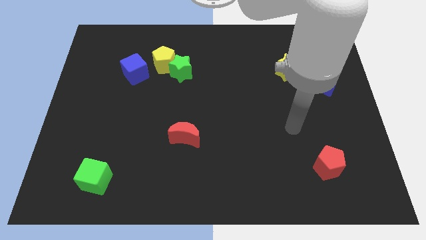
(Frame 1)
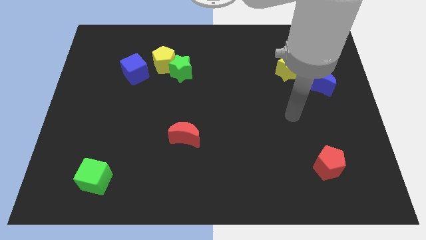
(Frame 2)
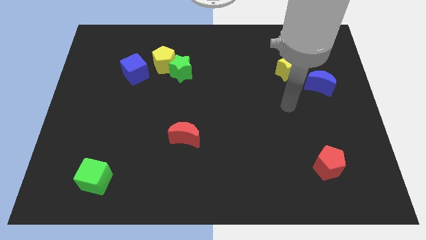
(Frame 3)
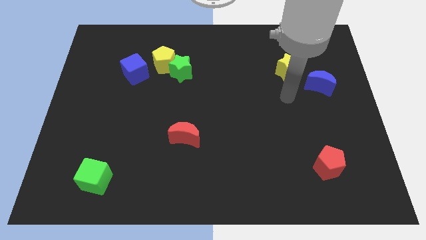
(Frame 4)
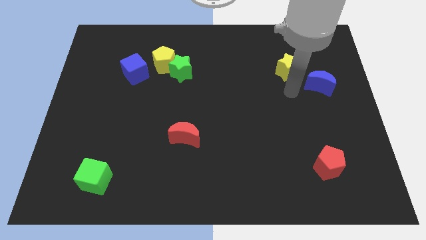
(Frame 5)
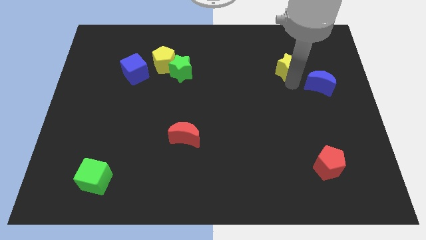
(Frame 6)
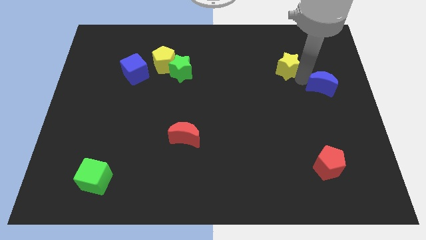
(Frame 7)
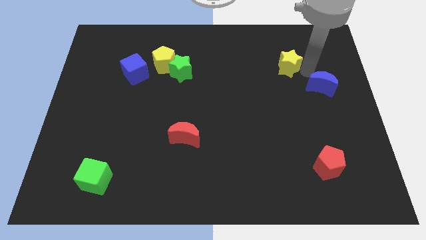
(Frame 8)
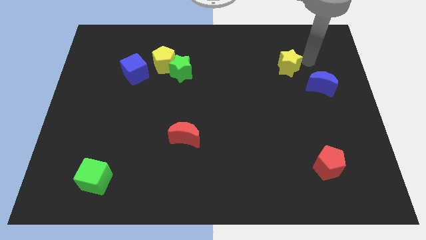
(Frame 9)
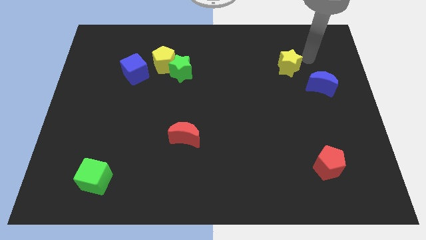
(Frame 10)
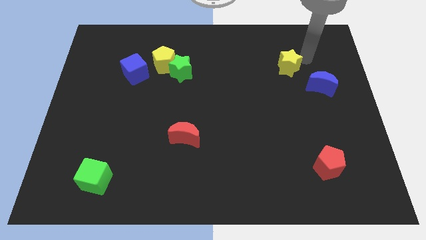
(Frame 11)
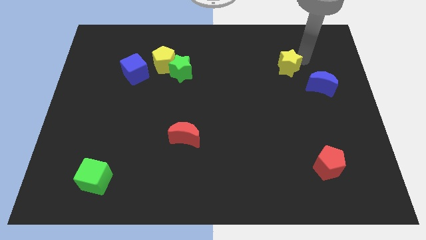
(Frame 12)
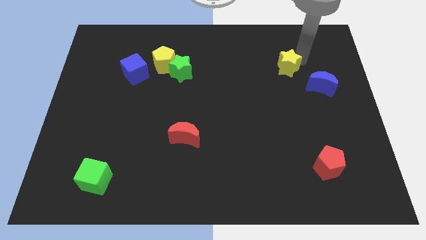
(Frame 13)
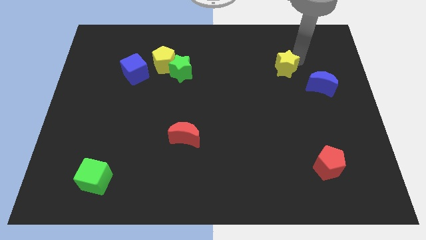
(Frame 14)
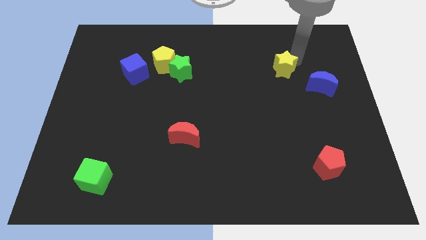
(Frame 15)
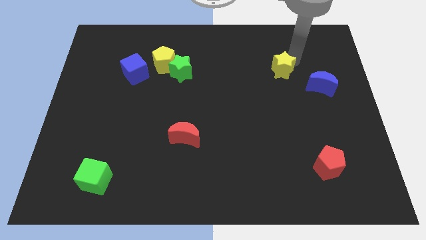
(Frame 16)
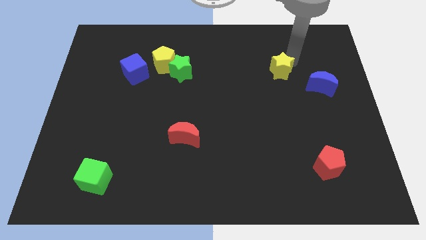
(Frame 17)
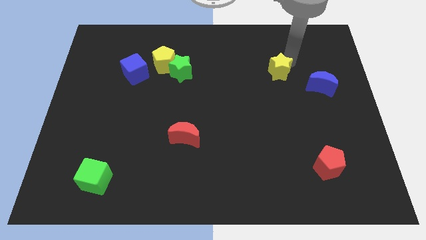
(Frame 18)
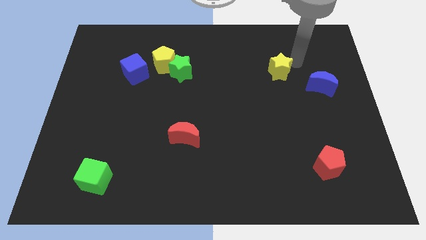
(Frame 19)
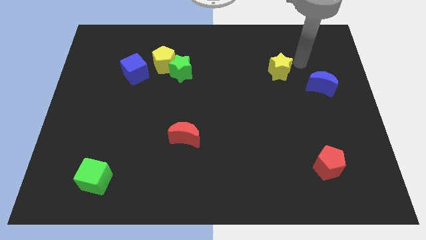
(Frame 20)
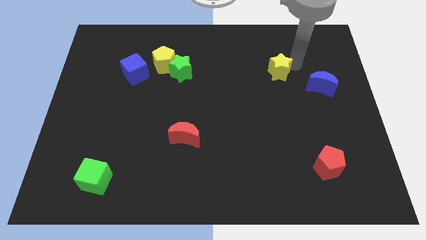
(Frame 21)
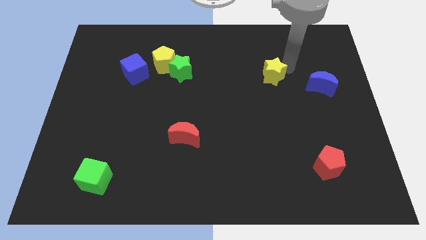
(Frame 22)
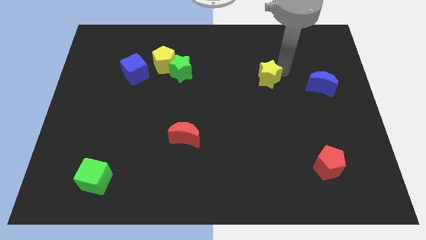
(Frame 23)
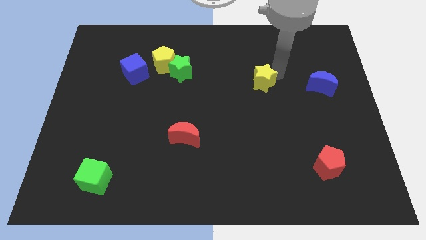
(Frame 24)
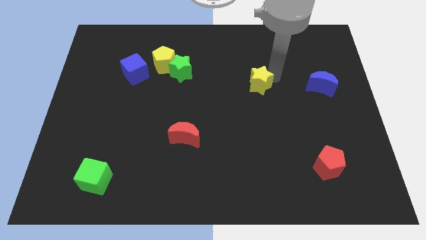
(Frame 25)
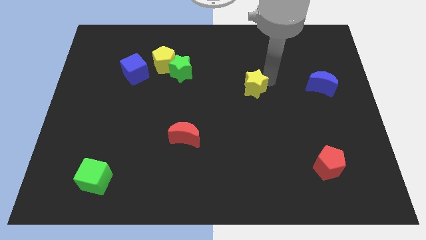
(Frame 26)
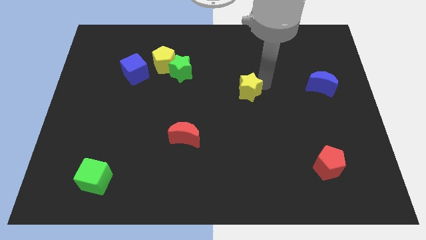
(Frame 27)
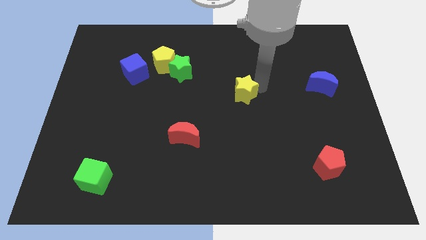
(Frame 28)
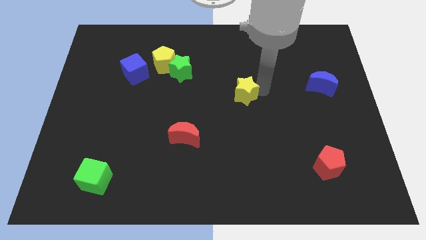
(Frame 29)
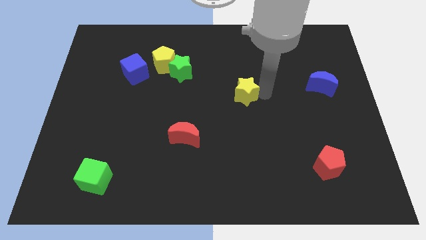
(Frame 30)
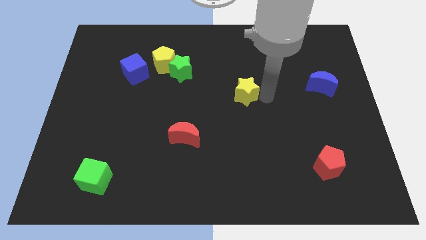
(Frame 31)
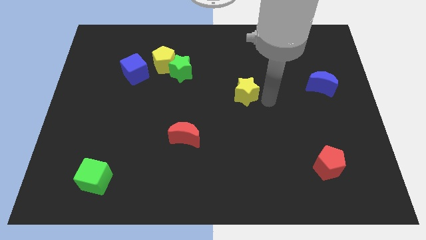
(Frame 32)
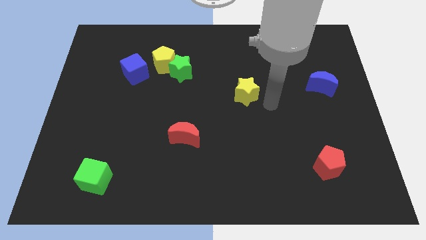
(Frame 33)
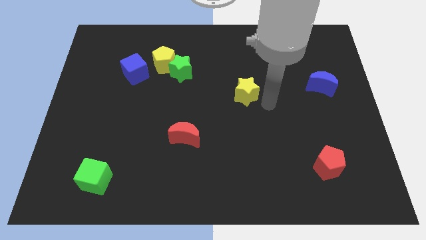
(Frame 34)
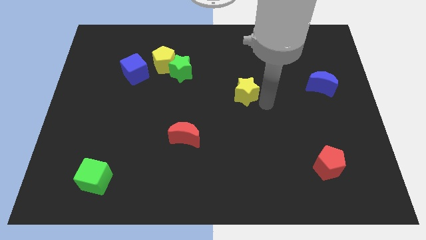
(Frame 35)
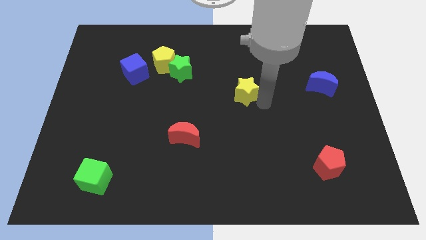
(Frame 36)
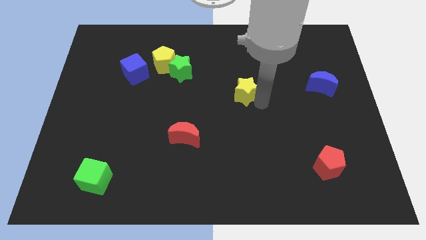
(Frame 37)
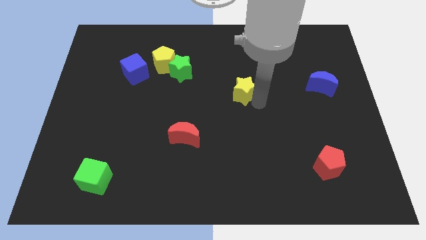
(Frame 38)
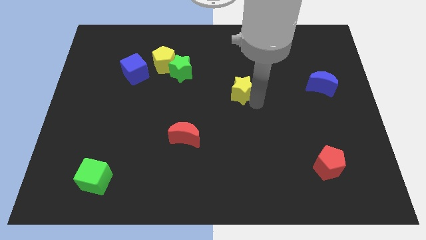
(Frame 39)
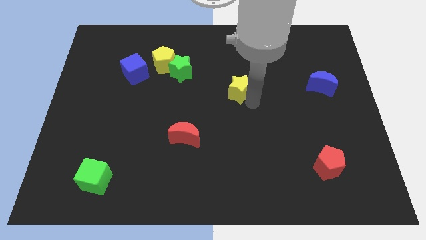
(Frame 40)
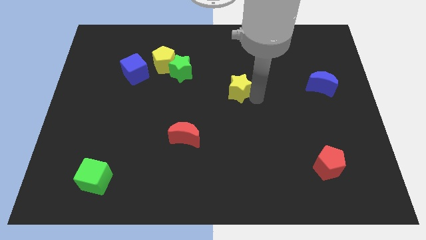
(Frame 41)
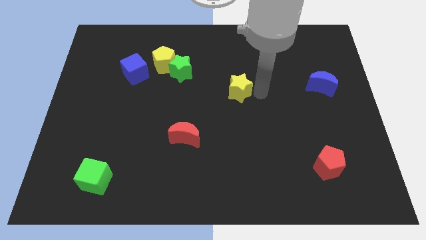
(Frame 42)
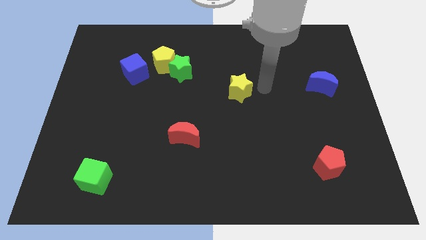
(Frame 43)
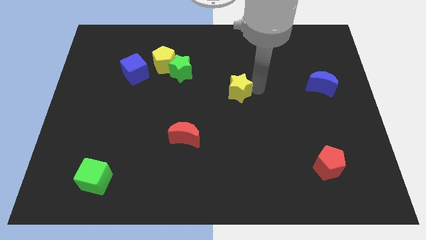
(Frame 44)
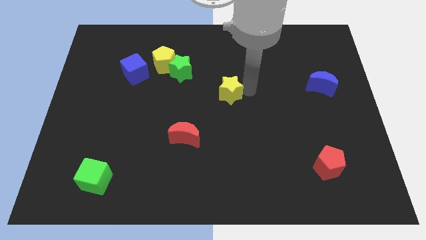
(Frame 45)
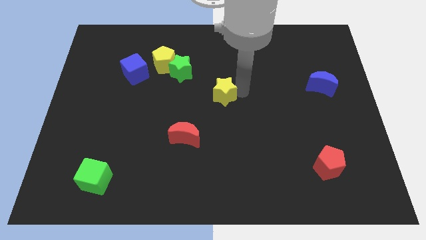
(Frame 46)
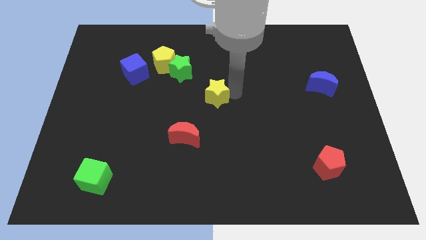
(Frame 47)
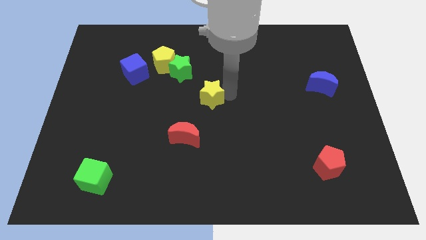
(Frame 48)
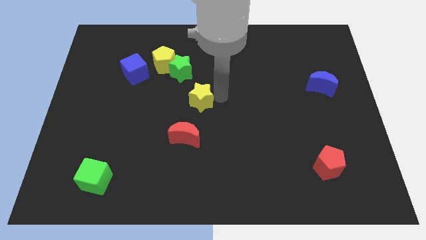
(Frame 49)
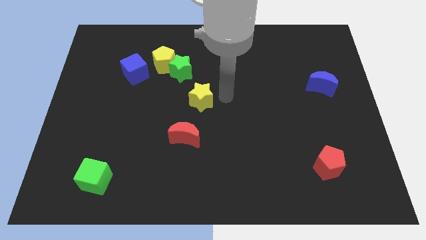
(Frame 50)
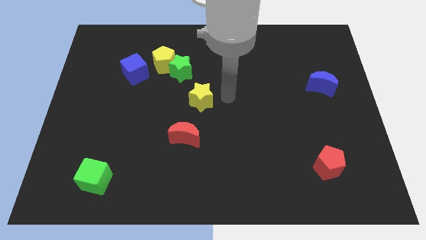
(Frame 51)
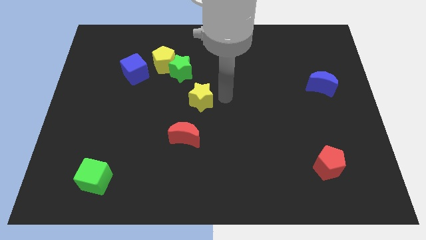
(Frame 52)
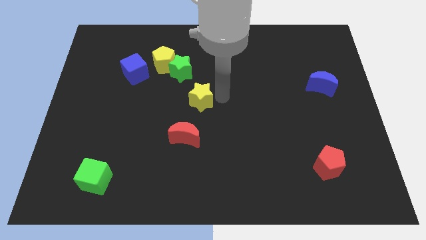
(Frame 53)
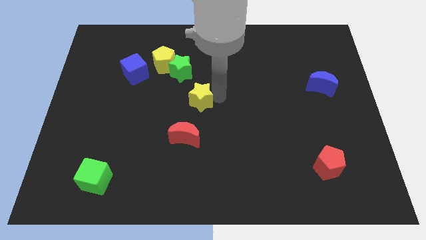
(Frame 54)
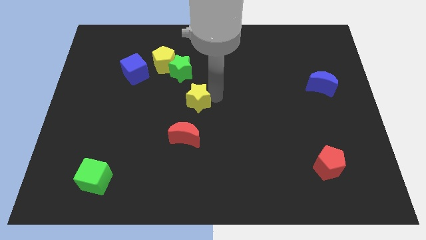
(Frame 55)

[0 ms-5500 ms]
slide the yellow star to the bottom side of the green star

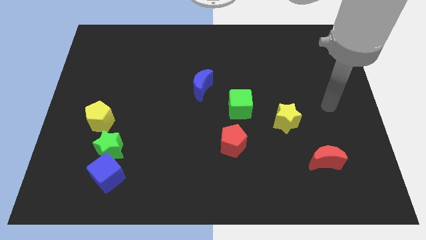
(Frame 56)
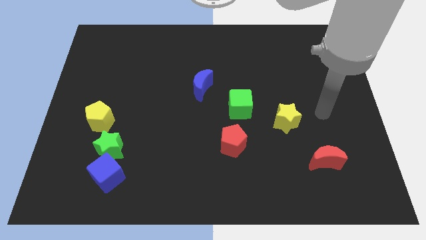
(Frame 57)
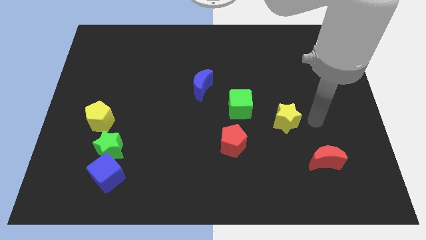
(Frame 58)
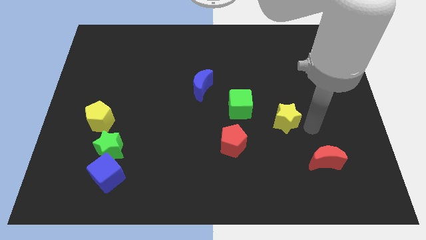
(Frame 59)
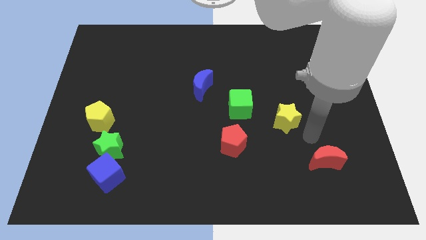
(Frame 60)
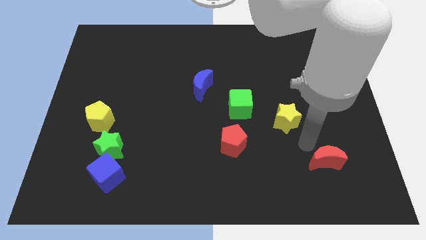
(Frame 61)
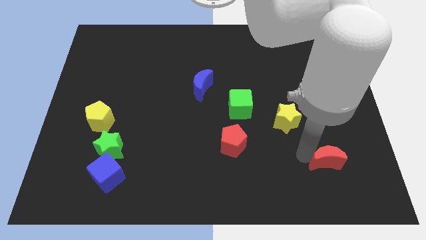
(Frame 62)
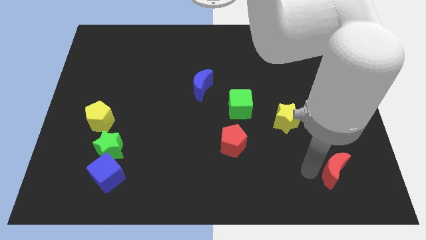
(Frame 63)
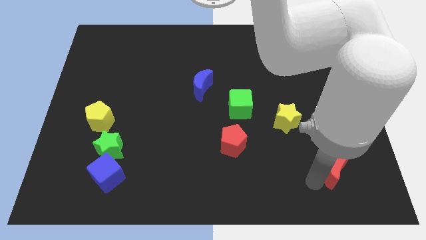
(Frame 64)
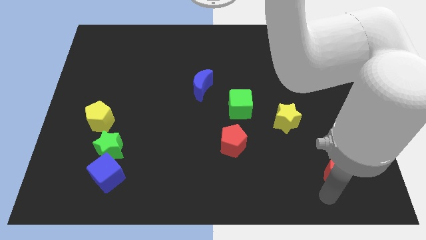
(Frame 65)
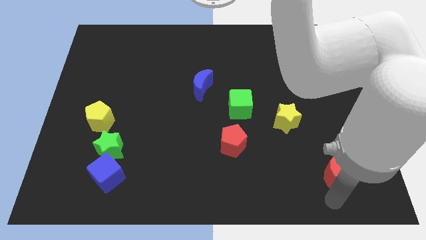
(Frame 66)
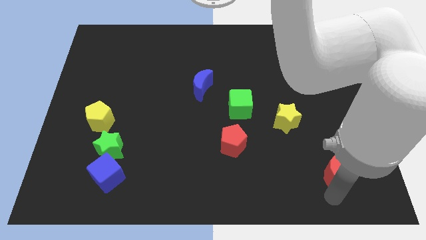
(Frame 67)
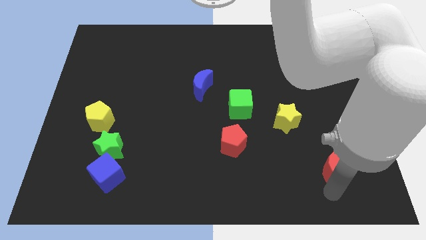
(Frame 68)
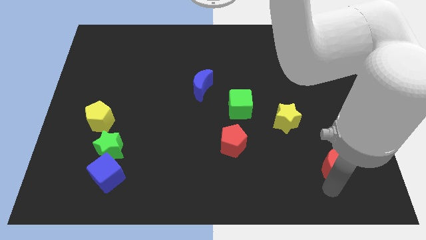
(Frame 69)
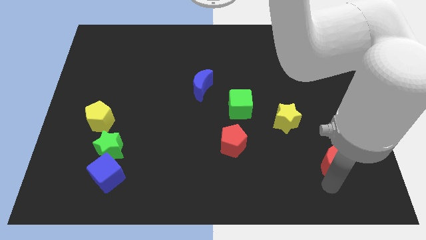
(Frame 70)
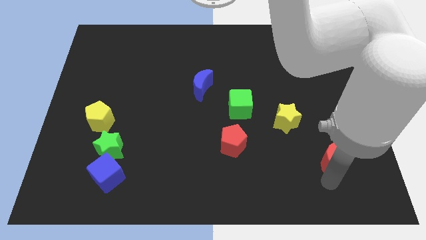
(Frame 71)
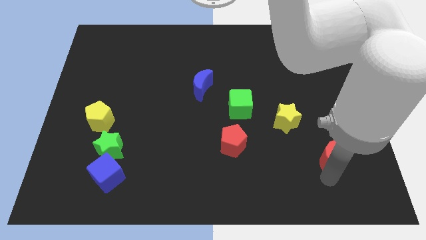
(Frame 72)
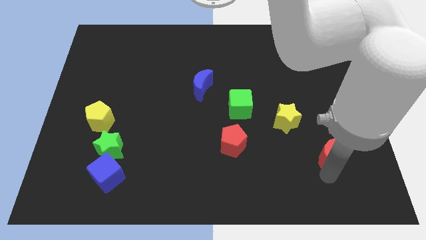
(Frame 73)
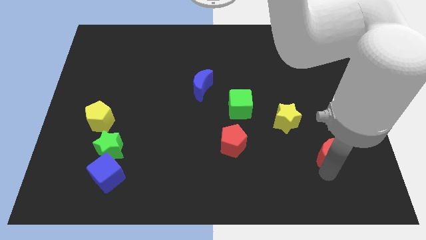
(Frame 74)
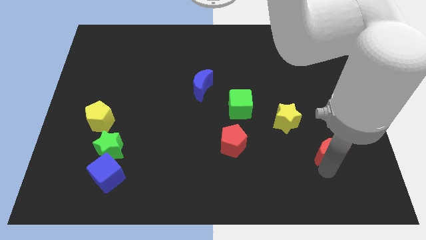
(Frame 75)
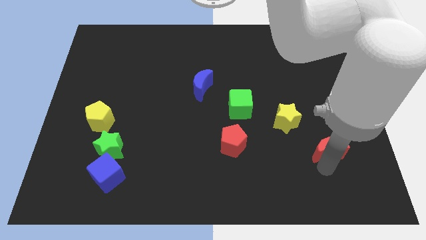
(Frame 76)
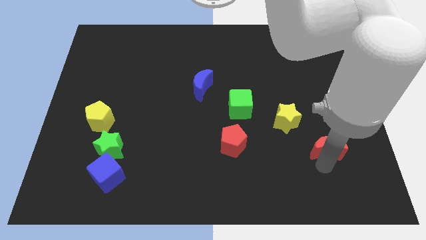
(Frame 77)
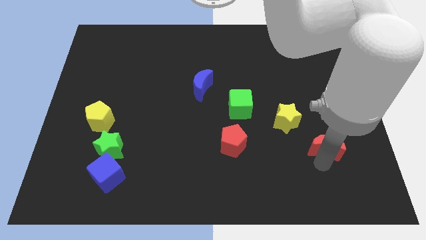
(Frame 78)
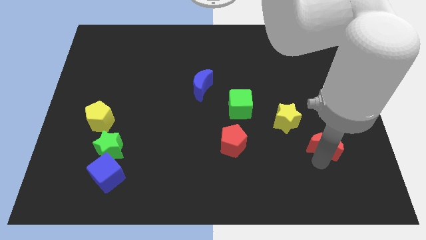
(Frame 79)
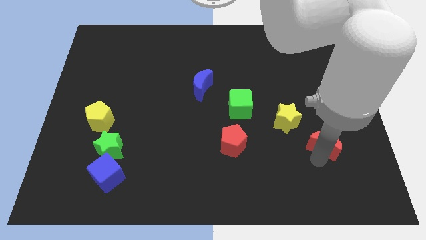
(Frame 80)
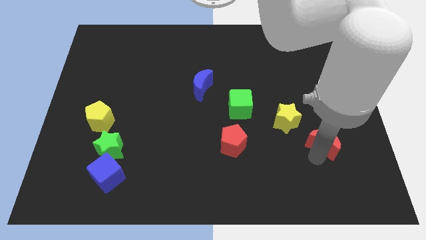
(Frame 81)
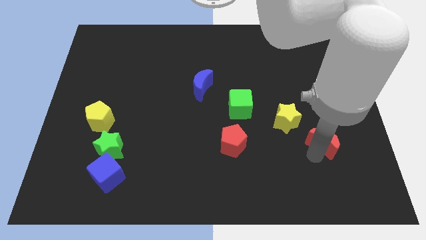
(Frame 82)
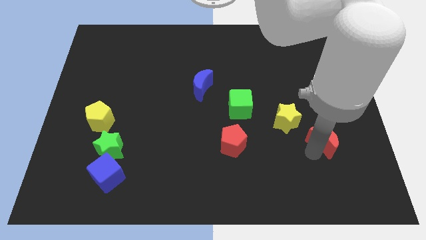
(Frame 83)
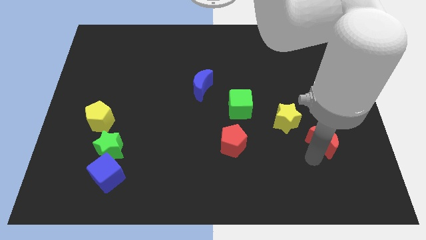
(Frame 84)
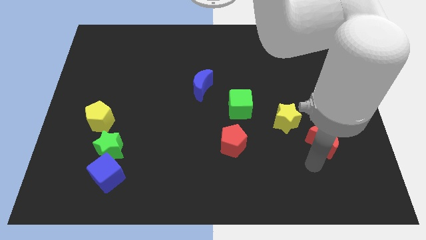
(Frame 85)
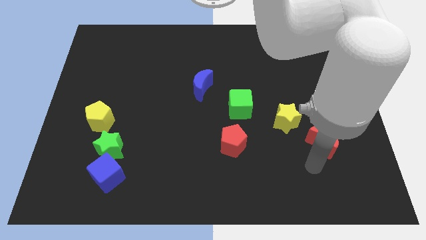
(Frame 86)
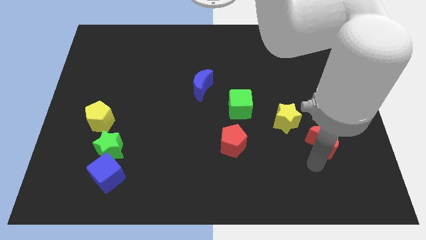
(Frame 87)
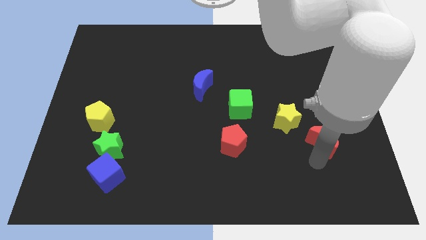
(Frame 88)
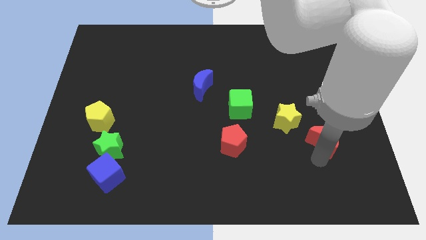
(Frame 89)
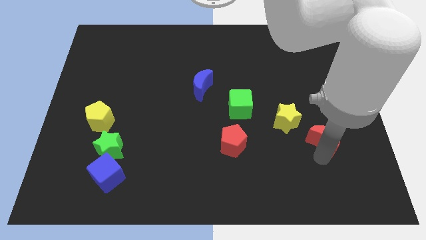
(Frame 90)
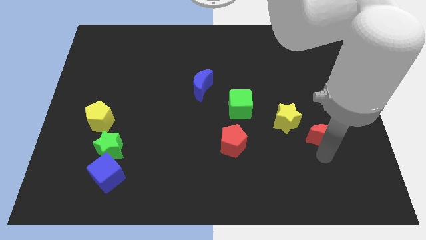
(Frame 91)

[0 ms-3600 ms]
put the red moon to the right of the yellow star
